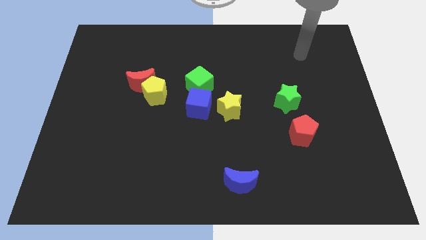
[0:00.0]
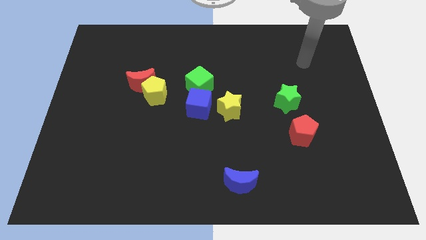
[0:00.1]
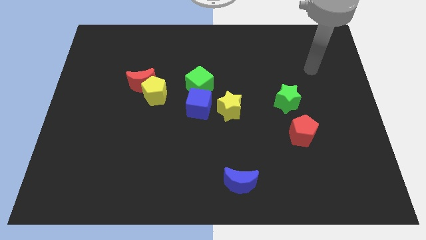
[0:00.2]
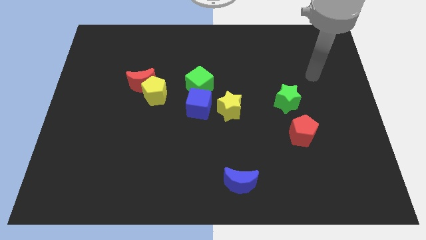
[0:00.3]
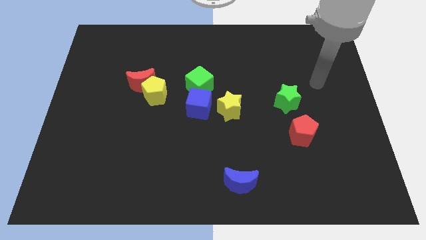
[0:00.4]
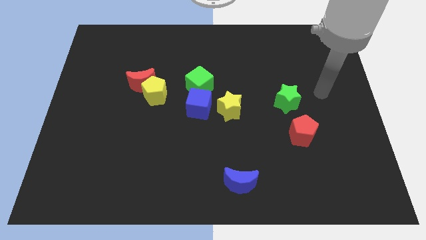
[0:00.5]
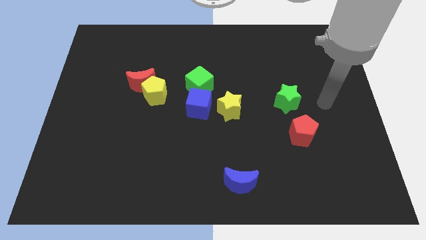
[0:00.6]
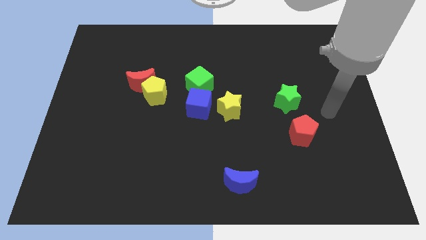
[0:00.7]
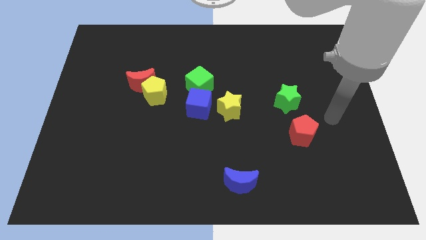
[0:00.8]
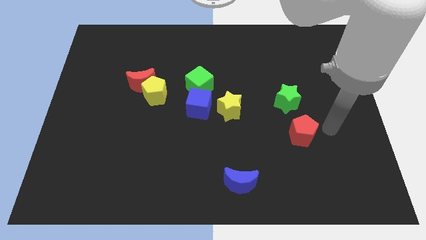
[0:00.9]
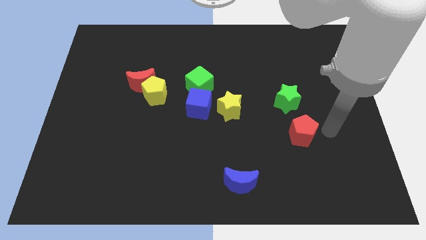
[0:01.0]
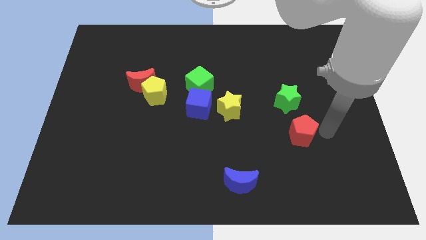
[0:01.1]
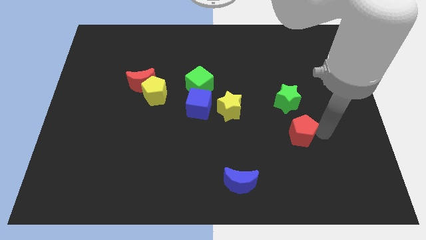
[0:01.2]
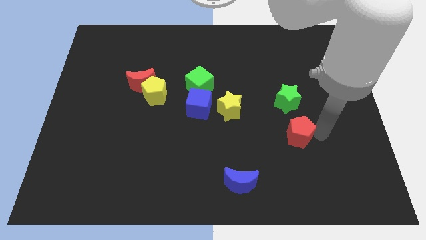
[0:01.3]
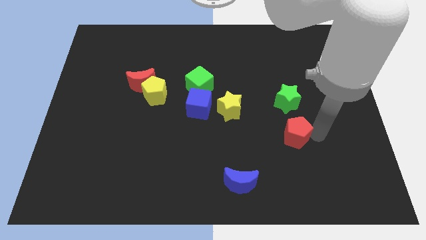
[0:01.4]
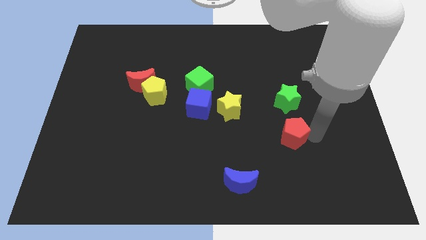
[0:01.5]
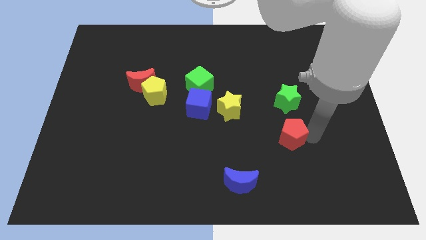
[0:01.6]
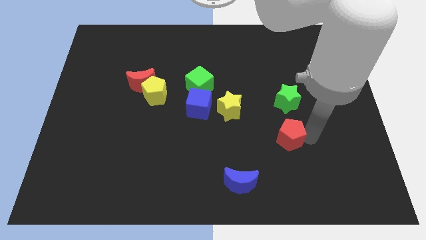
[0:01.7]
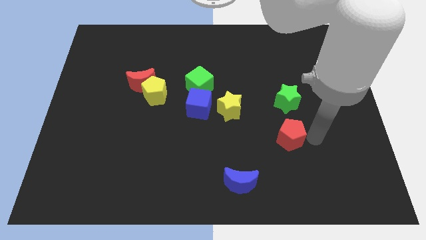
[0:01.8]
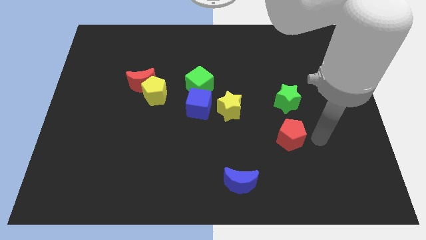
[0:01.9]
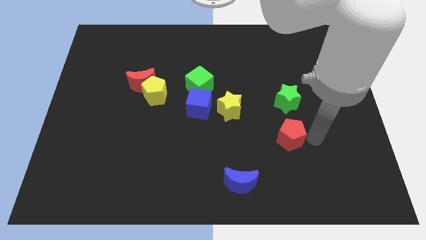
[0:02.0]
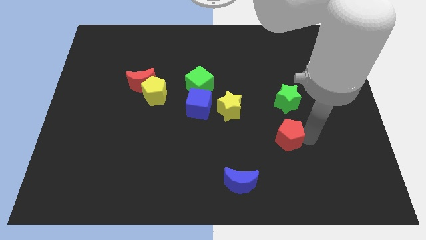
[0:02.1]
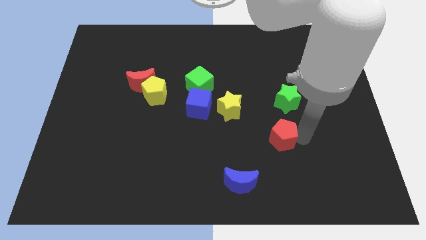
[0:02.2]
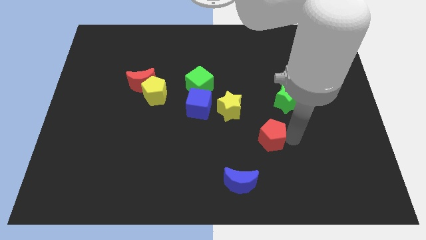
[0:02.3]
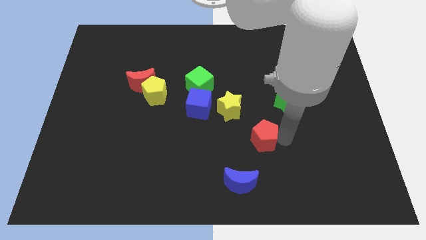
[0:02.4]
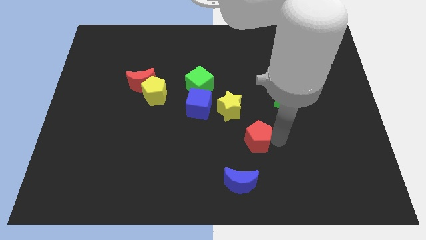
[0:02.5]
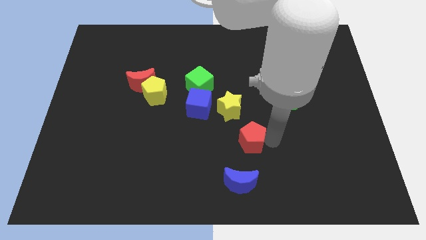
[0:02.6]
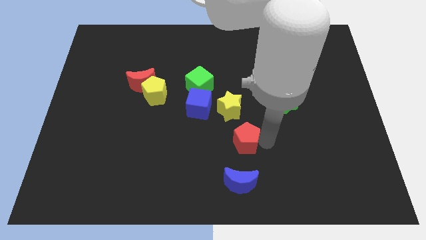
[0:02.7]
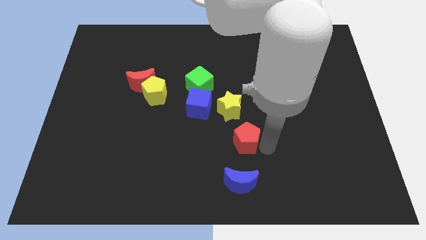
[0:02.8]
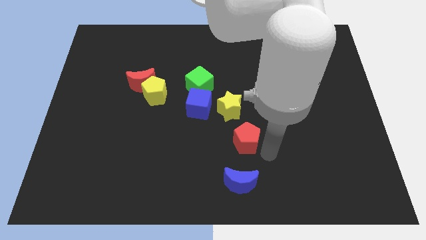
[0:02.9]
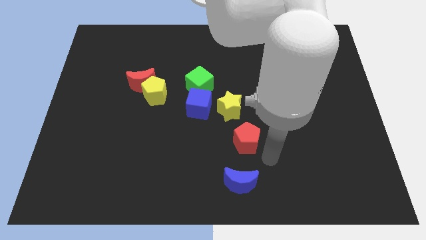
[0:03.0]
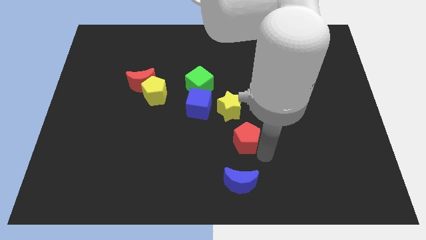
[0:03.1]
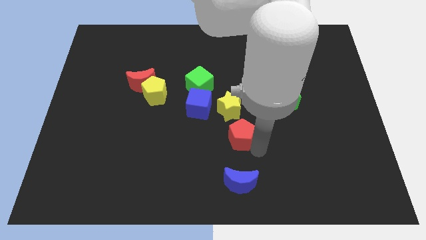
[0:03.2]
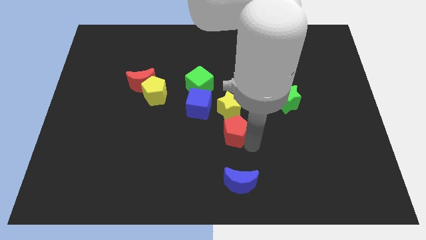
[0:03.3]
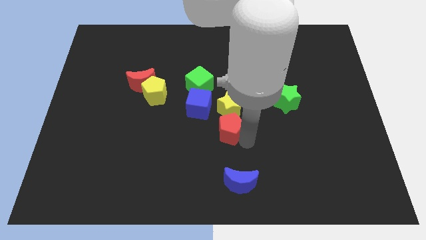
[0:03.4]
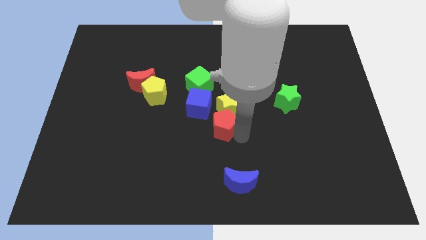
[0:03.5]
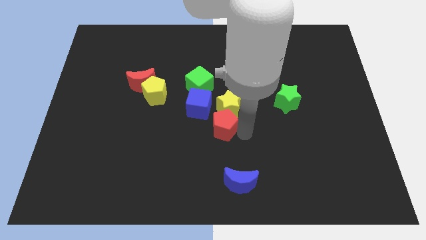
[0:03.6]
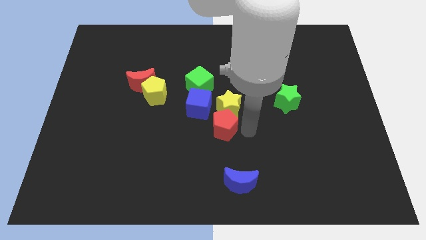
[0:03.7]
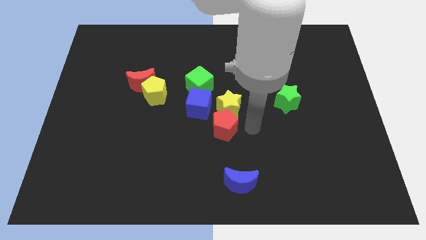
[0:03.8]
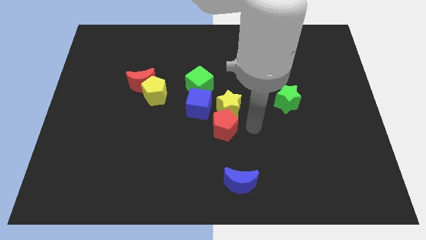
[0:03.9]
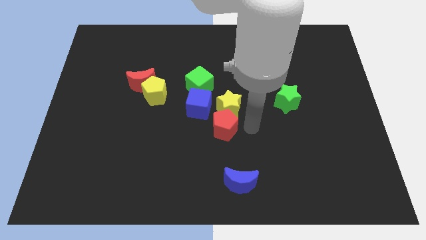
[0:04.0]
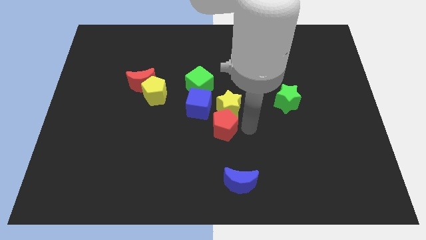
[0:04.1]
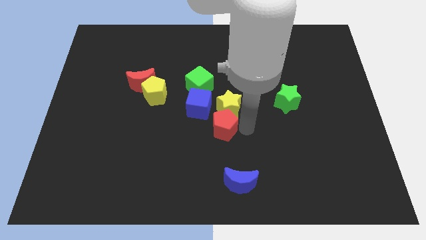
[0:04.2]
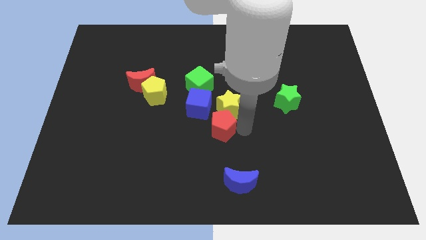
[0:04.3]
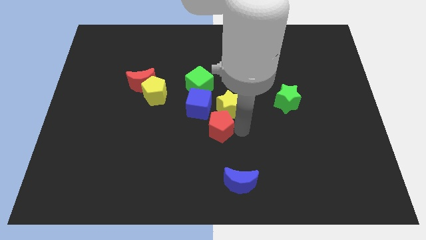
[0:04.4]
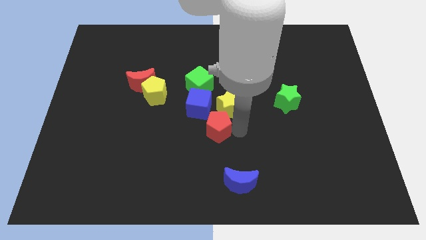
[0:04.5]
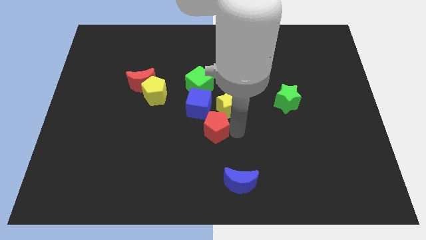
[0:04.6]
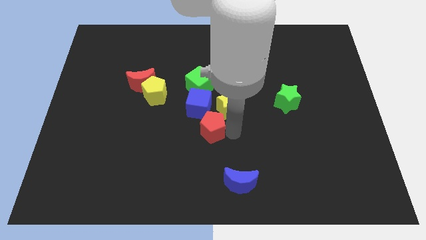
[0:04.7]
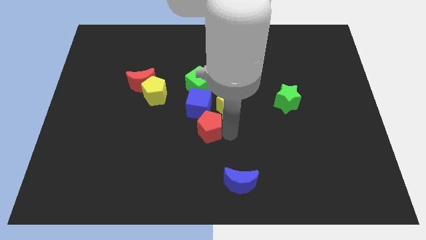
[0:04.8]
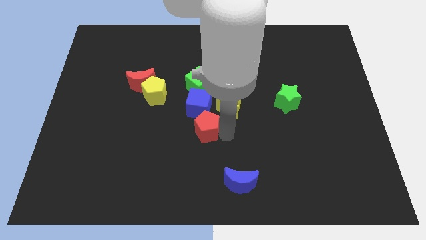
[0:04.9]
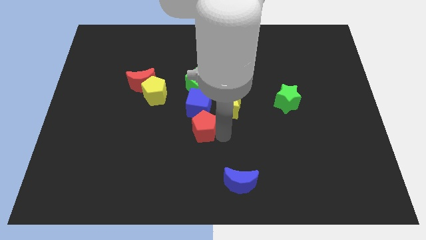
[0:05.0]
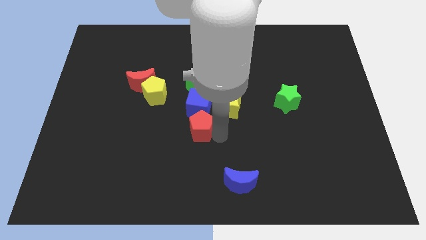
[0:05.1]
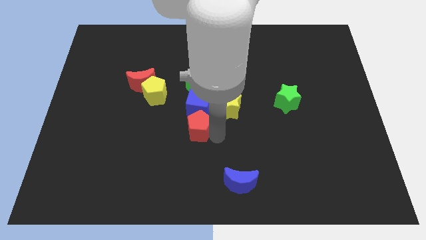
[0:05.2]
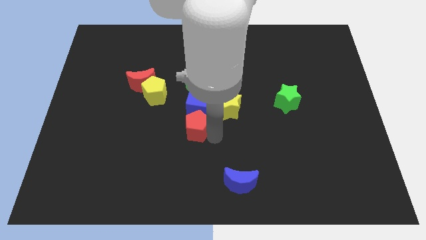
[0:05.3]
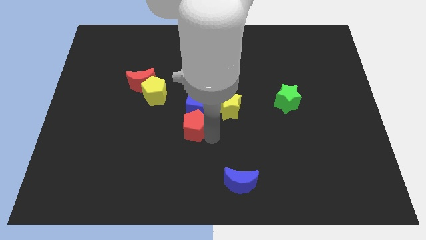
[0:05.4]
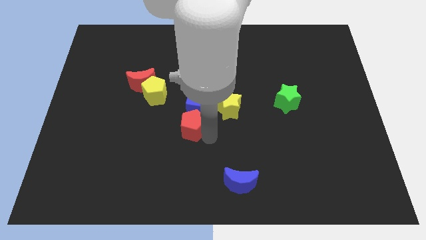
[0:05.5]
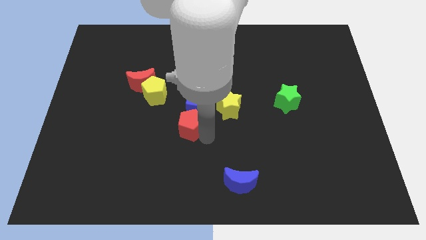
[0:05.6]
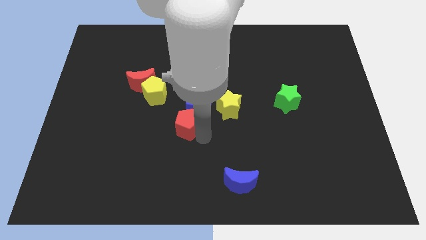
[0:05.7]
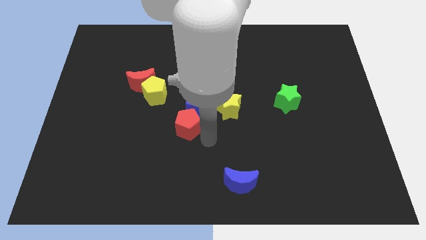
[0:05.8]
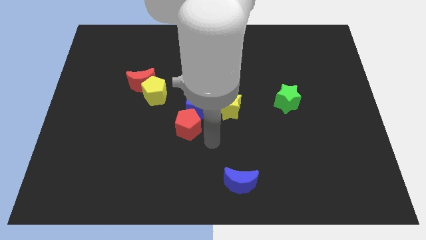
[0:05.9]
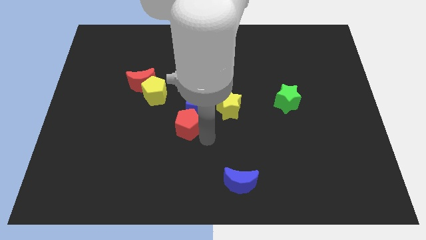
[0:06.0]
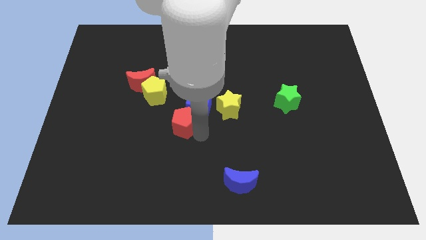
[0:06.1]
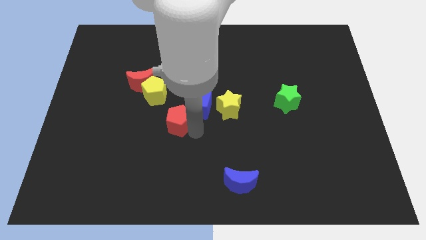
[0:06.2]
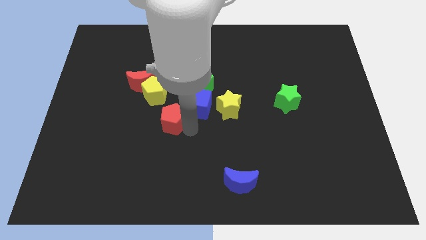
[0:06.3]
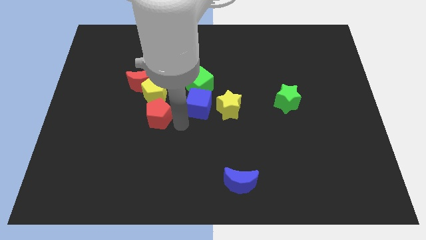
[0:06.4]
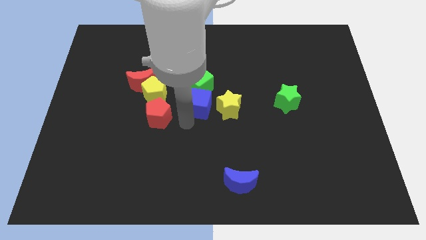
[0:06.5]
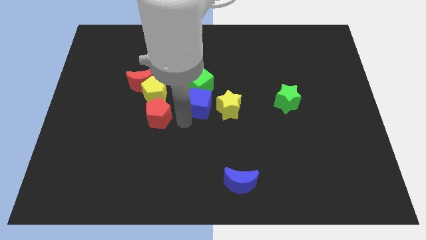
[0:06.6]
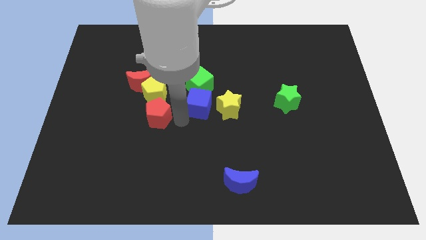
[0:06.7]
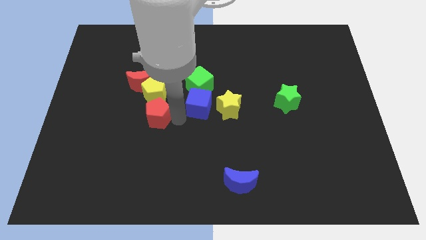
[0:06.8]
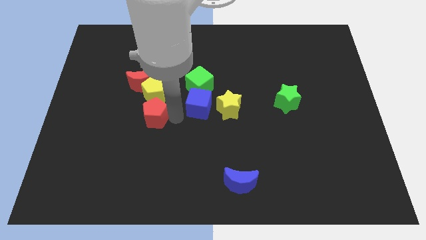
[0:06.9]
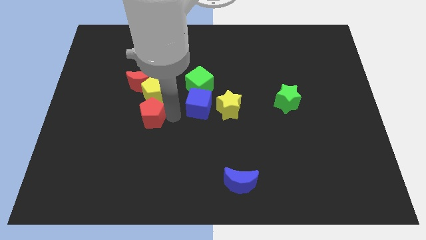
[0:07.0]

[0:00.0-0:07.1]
move the red pentagon diagonally down and to the left of the yellow pentagon

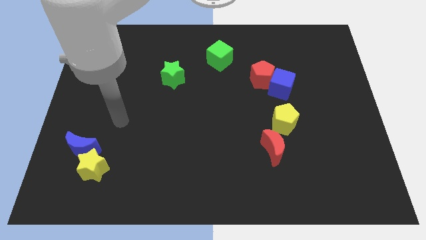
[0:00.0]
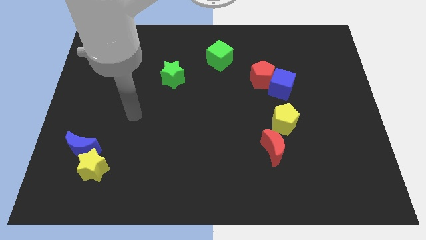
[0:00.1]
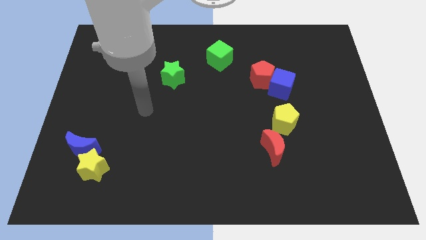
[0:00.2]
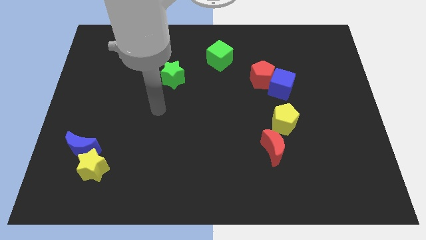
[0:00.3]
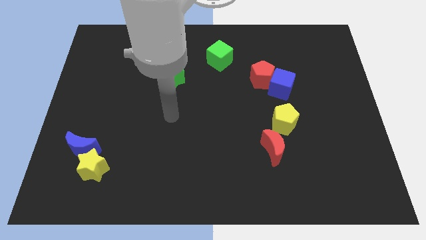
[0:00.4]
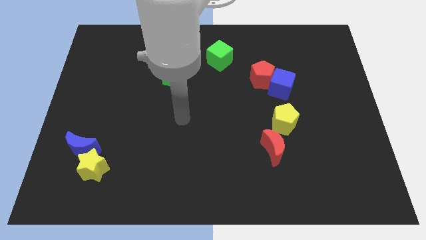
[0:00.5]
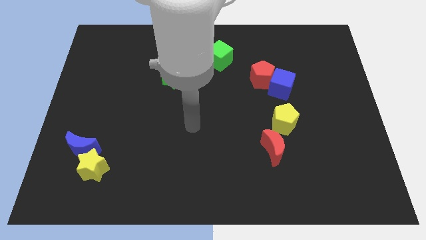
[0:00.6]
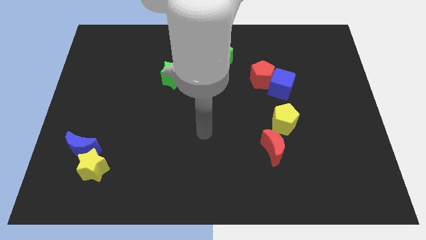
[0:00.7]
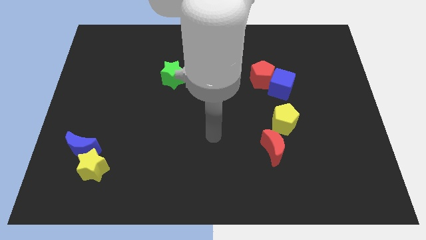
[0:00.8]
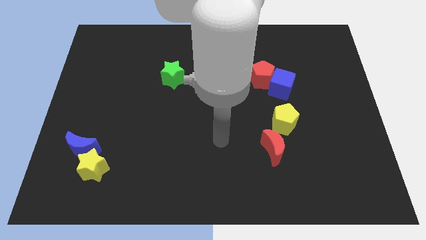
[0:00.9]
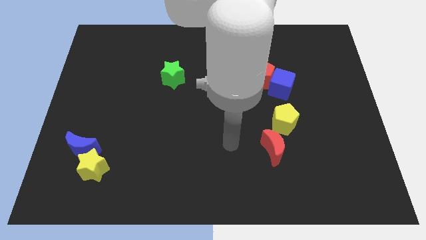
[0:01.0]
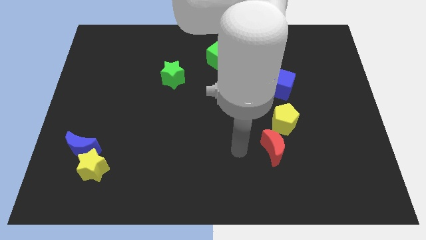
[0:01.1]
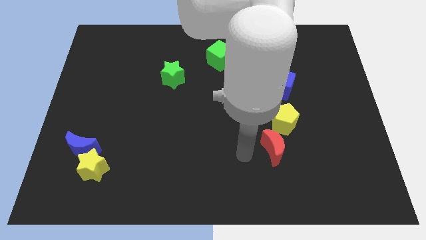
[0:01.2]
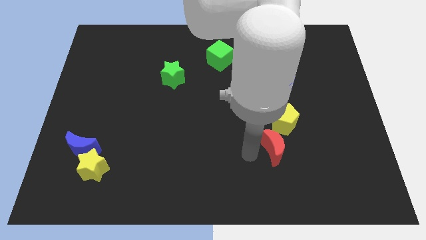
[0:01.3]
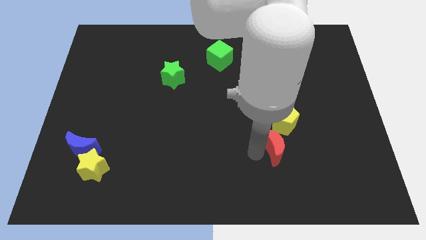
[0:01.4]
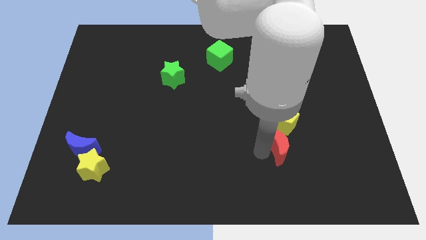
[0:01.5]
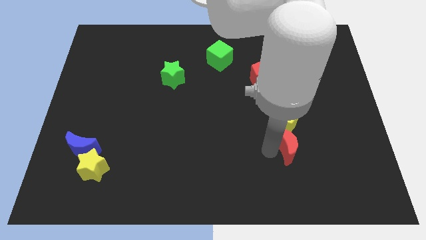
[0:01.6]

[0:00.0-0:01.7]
push the red moon to the bottom right side of the yellow pentagon
